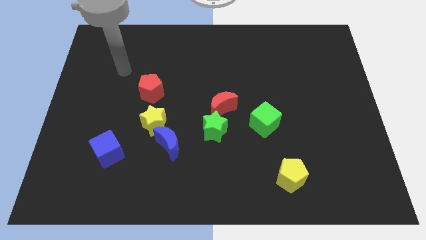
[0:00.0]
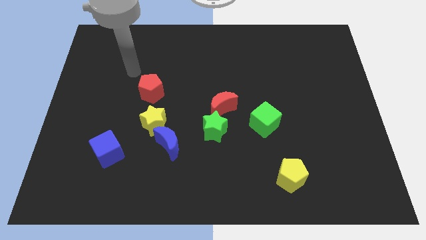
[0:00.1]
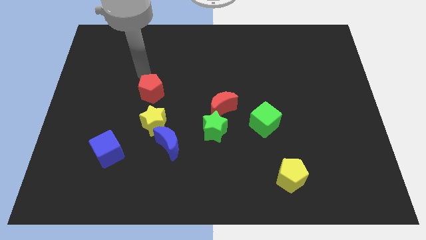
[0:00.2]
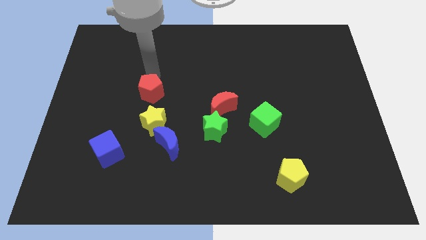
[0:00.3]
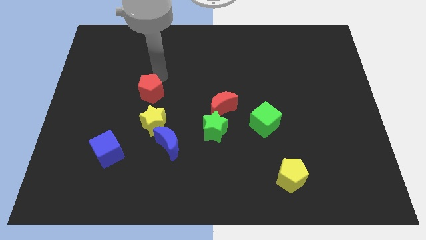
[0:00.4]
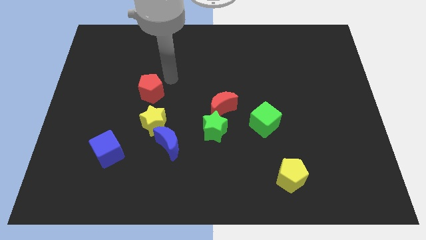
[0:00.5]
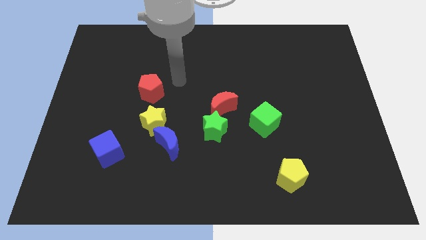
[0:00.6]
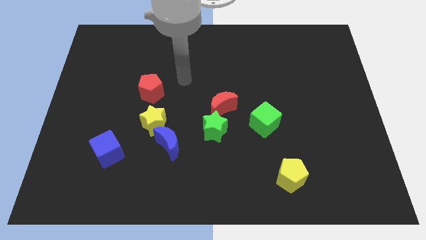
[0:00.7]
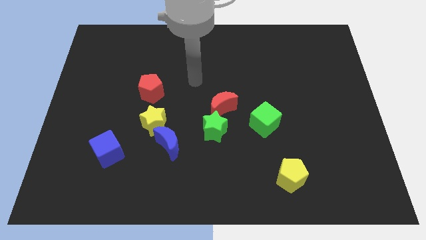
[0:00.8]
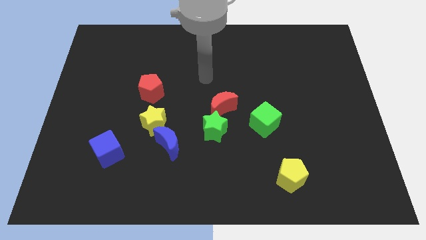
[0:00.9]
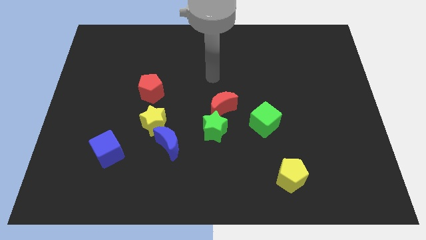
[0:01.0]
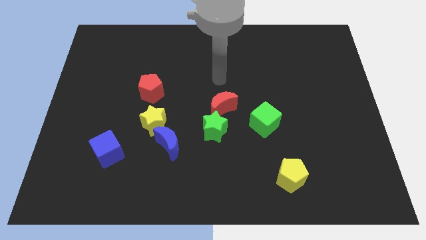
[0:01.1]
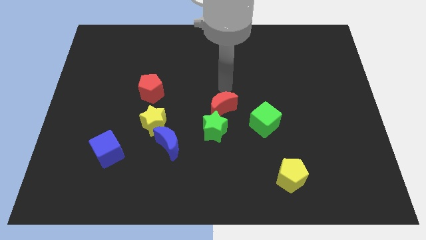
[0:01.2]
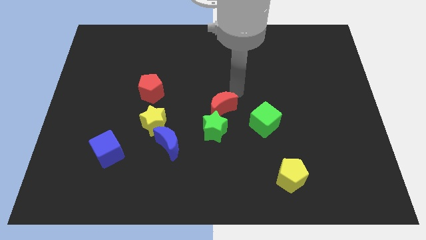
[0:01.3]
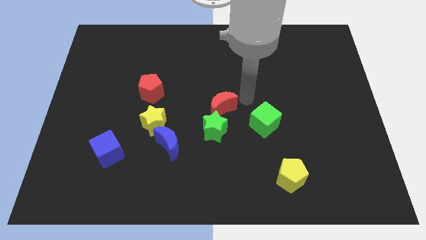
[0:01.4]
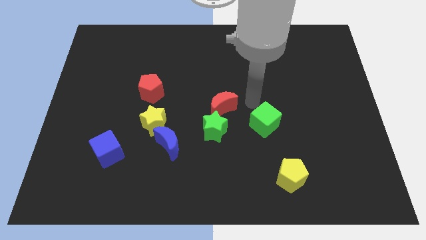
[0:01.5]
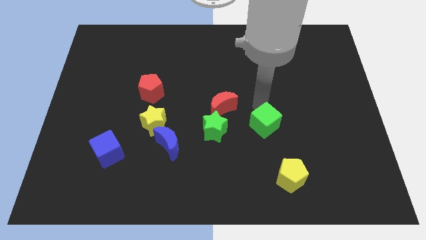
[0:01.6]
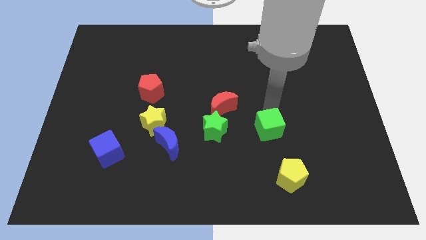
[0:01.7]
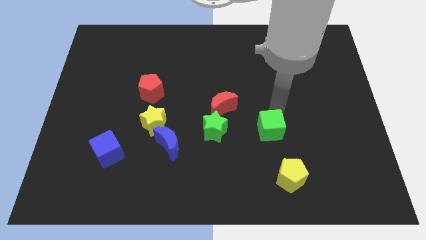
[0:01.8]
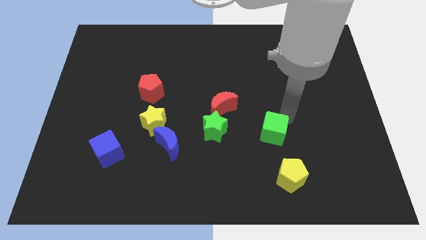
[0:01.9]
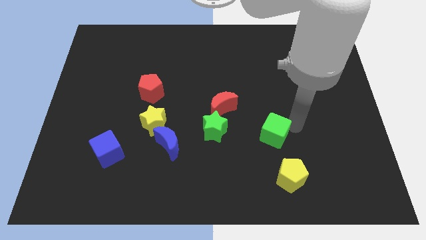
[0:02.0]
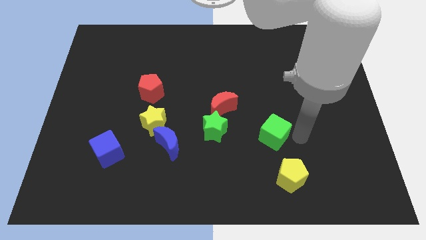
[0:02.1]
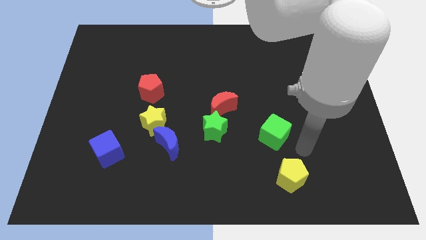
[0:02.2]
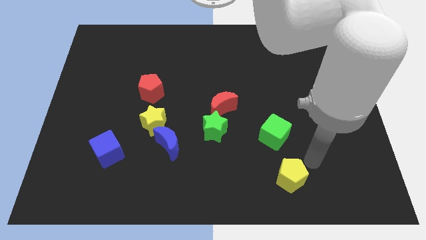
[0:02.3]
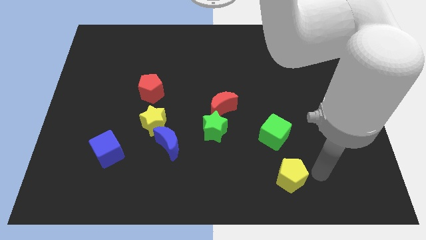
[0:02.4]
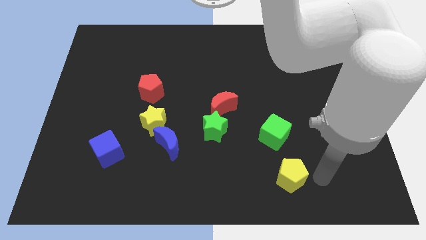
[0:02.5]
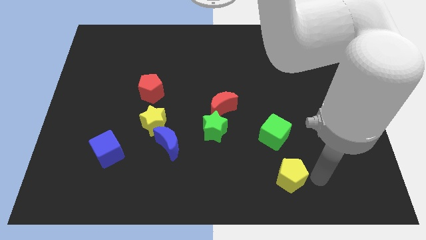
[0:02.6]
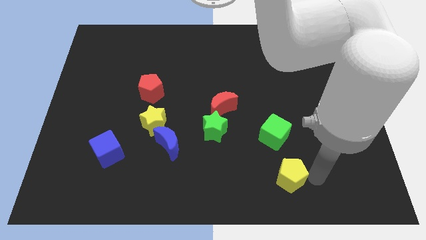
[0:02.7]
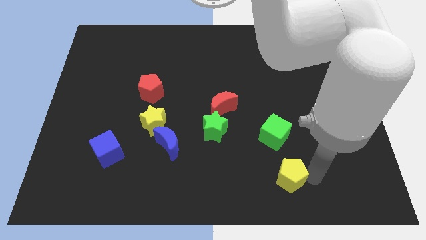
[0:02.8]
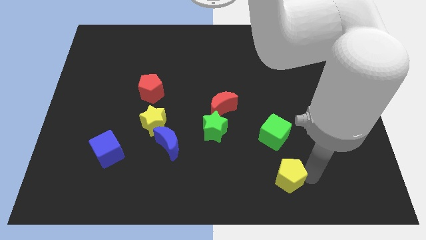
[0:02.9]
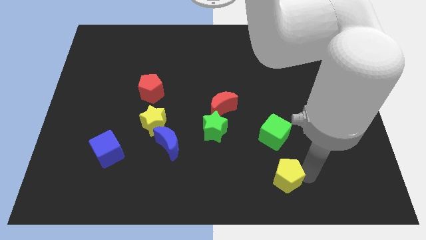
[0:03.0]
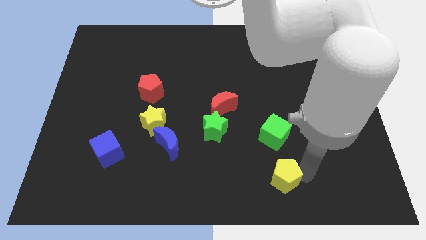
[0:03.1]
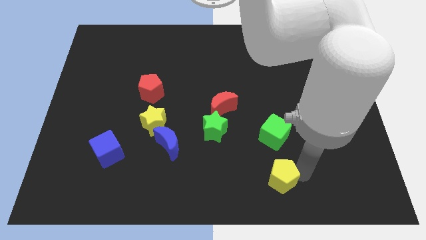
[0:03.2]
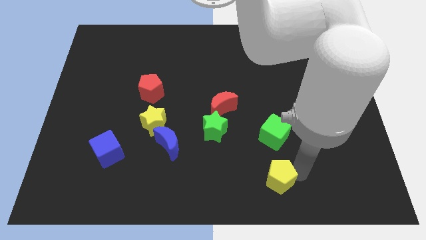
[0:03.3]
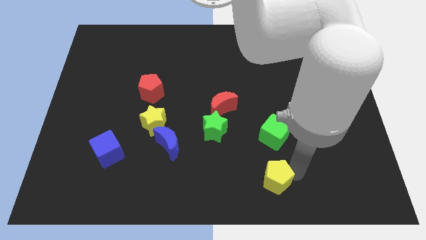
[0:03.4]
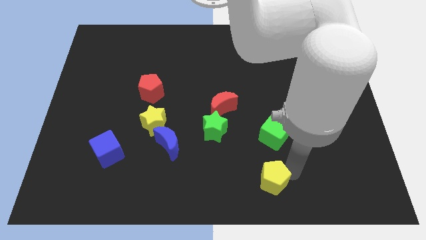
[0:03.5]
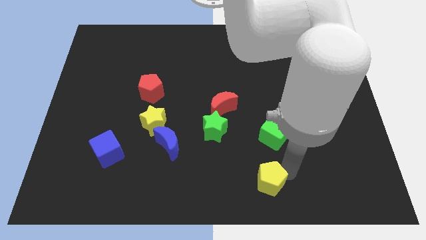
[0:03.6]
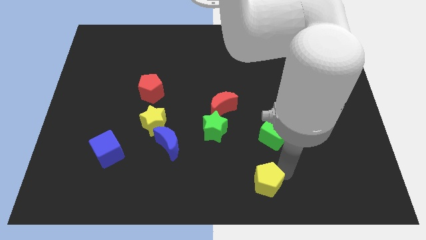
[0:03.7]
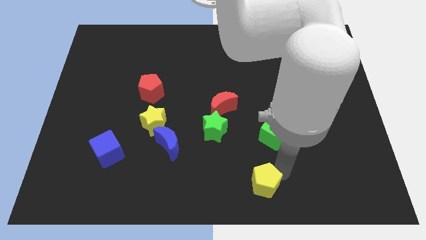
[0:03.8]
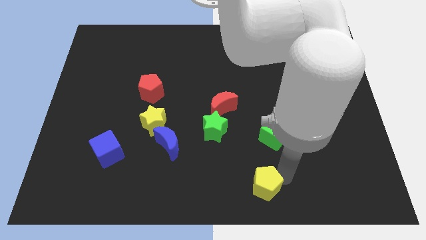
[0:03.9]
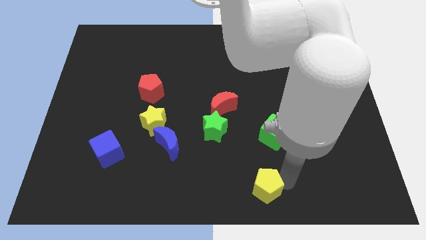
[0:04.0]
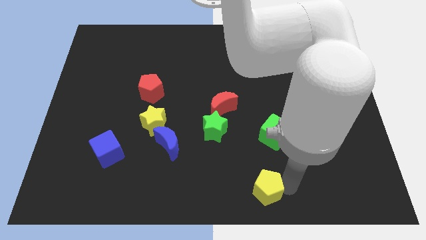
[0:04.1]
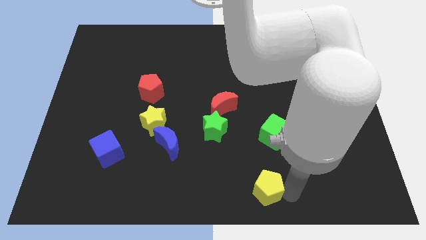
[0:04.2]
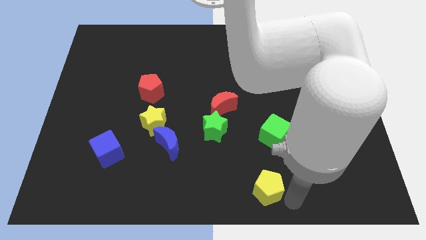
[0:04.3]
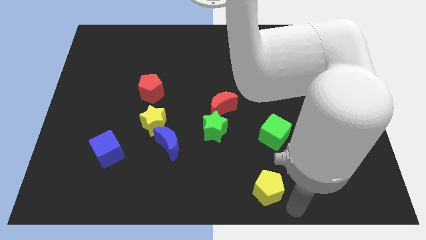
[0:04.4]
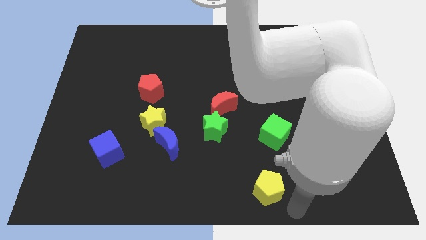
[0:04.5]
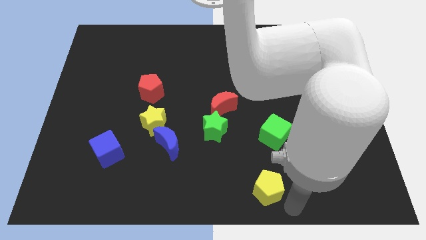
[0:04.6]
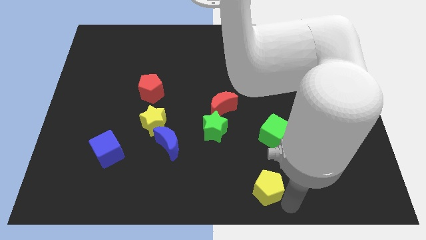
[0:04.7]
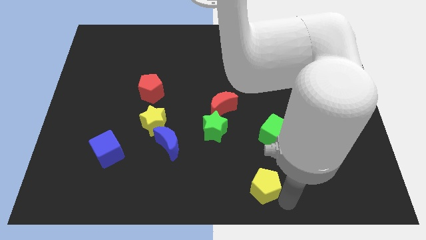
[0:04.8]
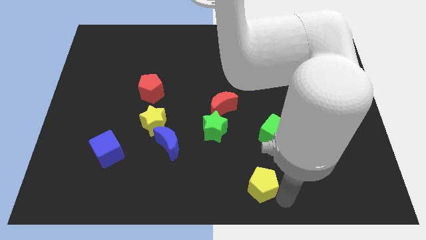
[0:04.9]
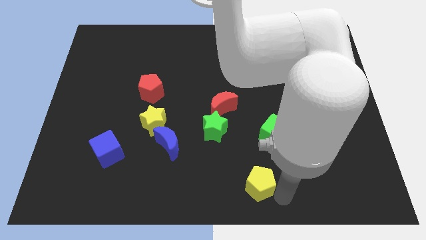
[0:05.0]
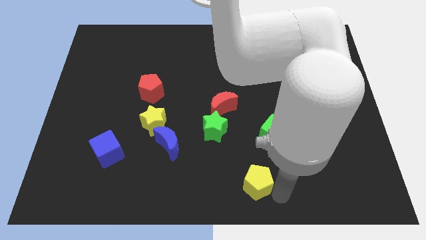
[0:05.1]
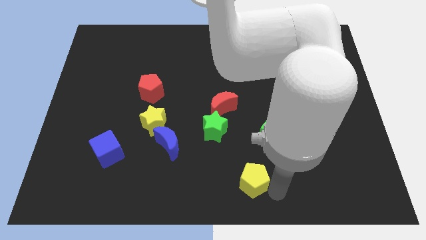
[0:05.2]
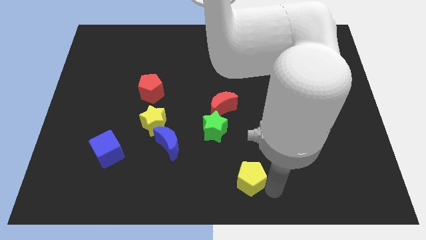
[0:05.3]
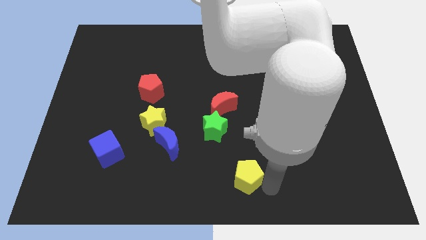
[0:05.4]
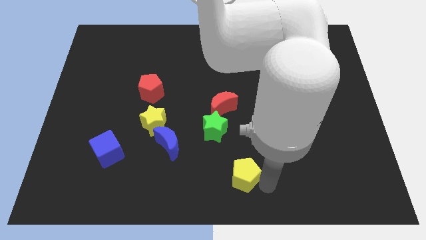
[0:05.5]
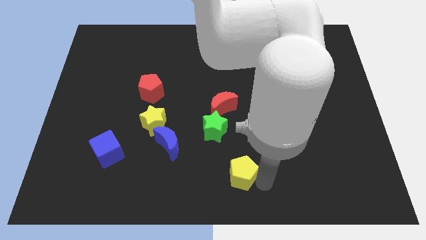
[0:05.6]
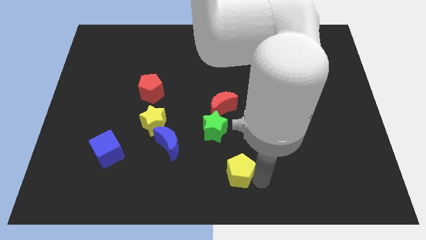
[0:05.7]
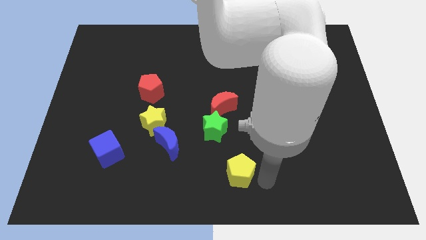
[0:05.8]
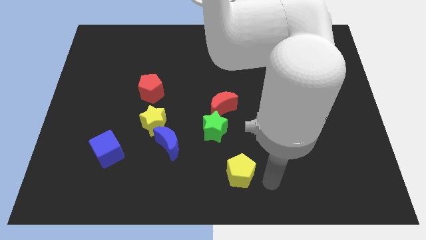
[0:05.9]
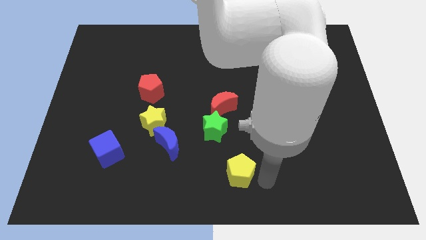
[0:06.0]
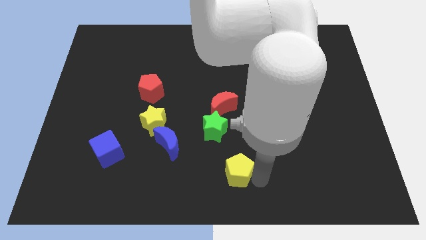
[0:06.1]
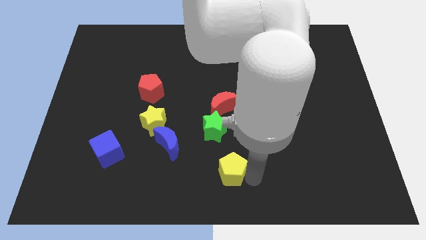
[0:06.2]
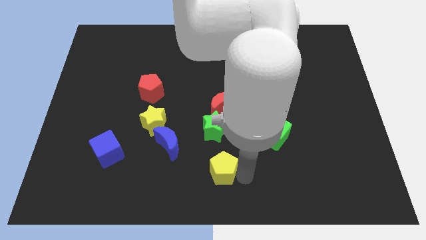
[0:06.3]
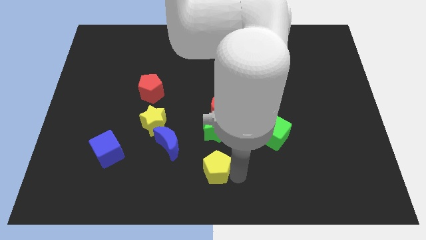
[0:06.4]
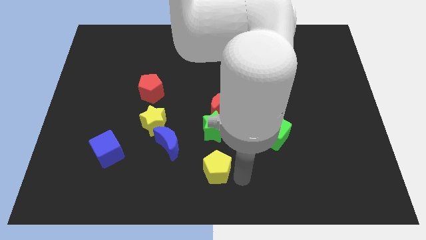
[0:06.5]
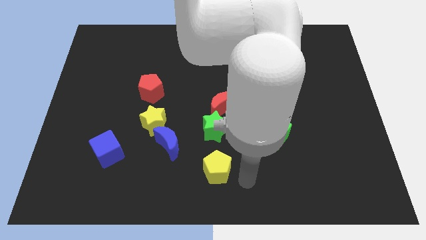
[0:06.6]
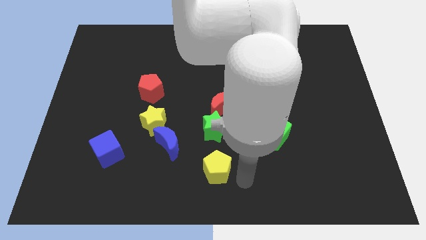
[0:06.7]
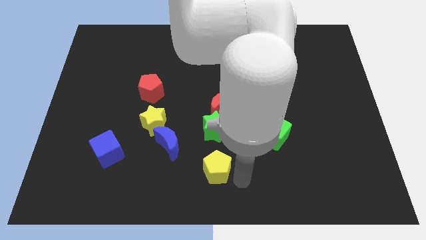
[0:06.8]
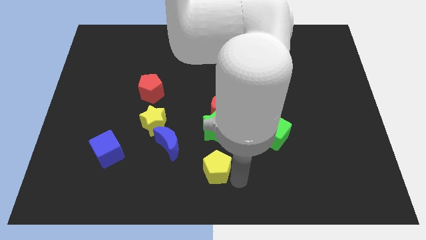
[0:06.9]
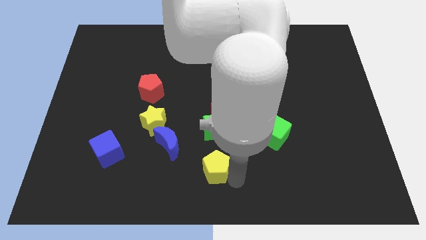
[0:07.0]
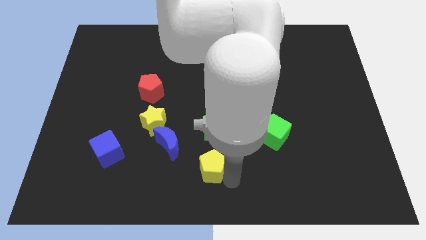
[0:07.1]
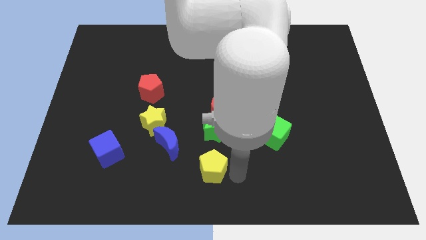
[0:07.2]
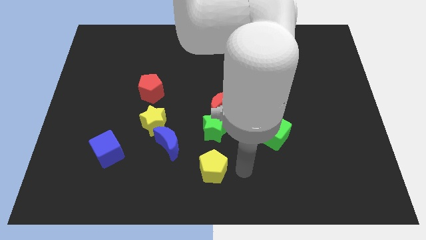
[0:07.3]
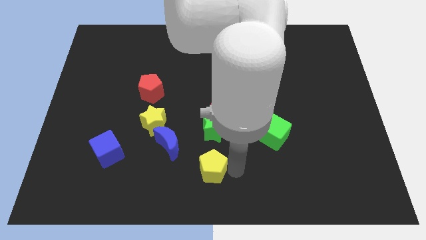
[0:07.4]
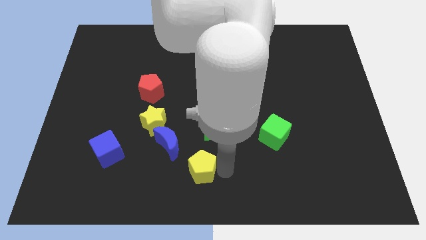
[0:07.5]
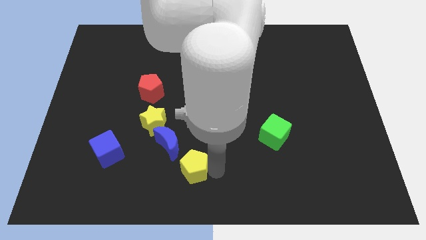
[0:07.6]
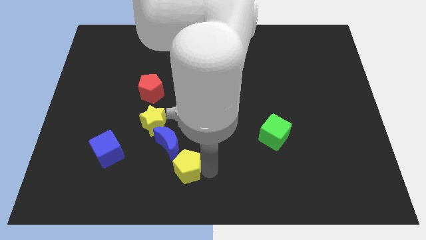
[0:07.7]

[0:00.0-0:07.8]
slide the yellow pentagon left

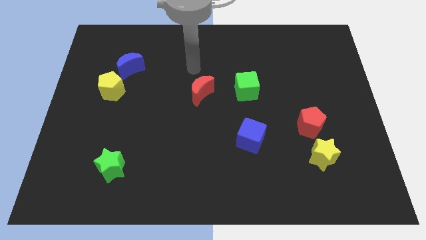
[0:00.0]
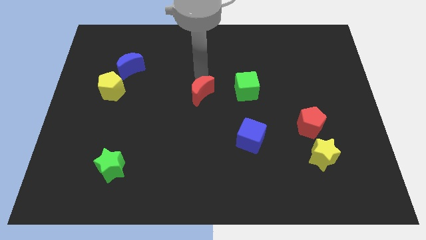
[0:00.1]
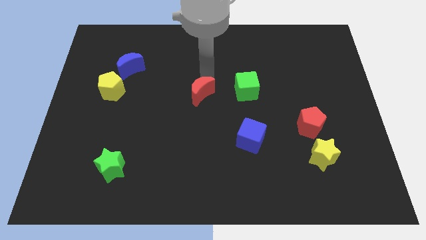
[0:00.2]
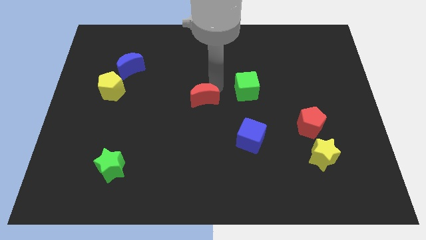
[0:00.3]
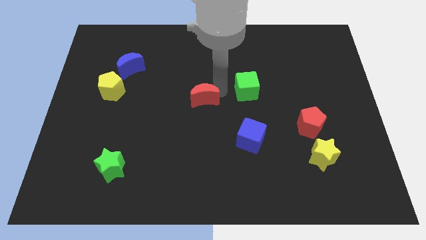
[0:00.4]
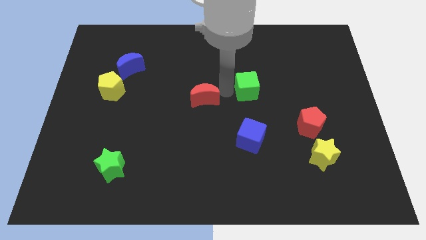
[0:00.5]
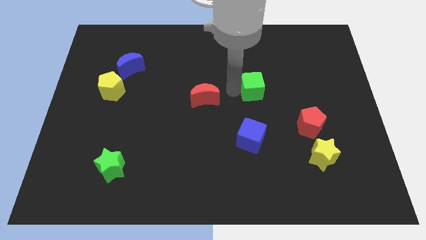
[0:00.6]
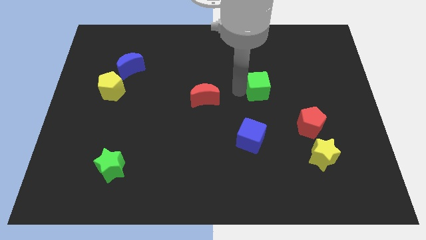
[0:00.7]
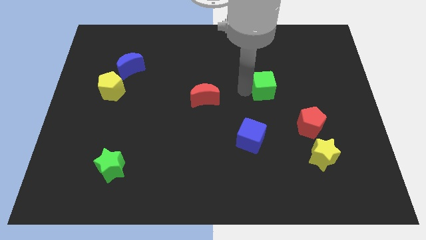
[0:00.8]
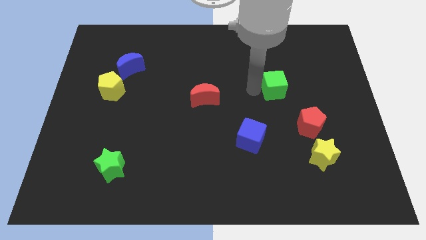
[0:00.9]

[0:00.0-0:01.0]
push the green cube a bit to the right
